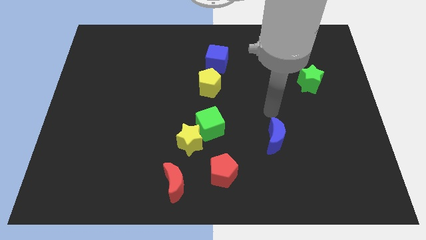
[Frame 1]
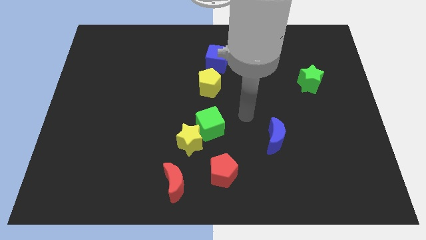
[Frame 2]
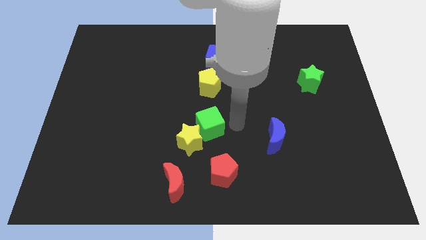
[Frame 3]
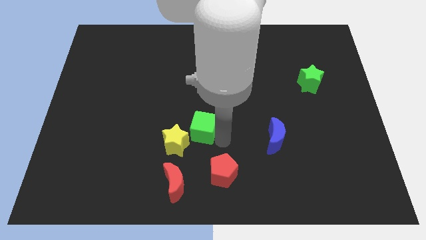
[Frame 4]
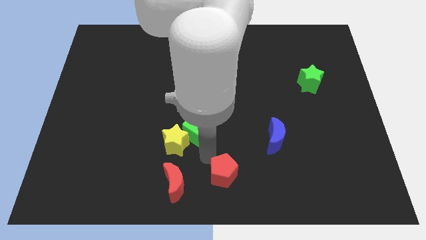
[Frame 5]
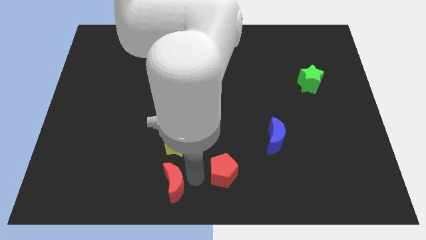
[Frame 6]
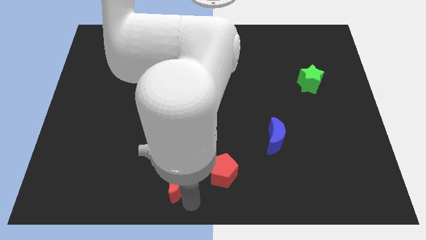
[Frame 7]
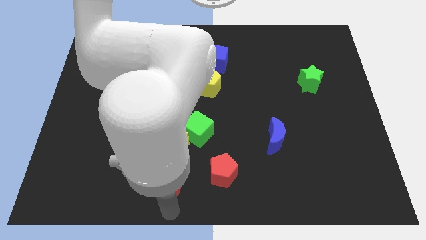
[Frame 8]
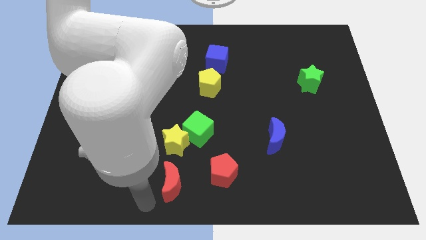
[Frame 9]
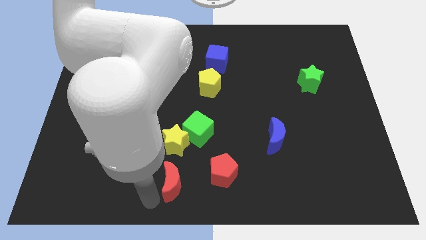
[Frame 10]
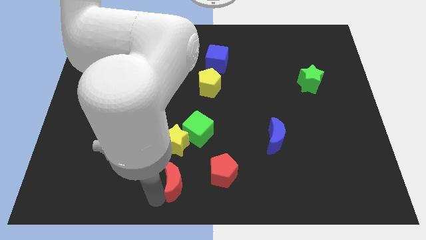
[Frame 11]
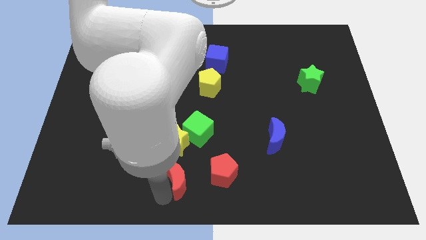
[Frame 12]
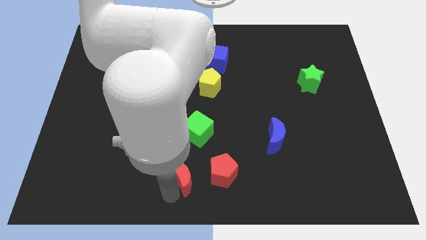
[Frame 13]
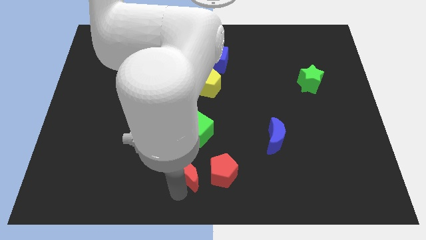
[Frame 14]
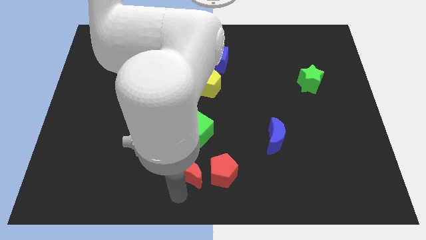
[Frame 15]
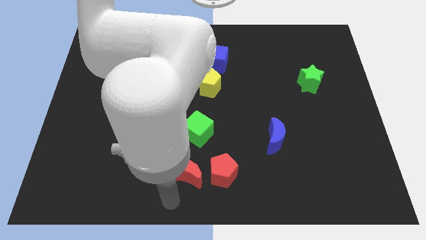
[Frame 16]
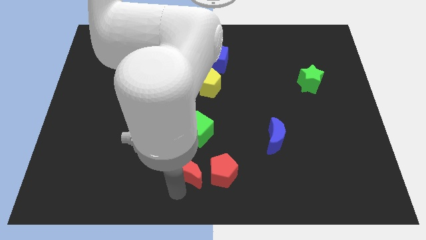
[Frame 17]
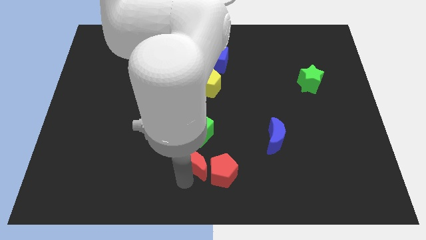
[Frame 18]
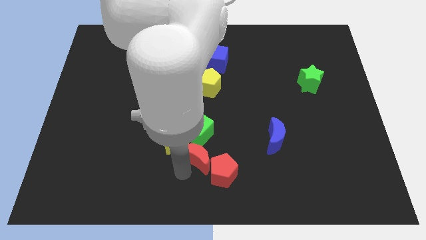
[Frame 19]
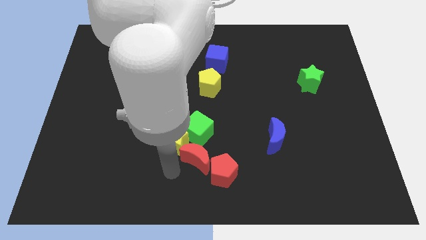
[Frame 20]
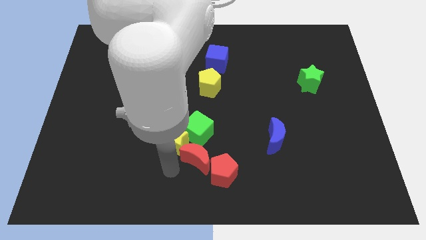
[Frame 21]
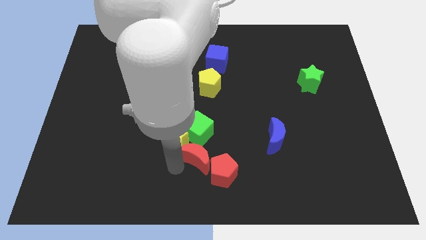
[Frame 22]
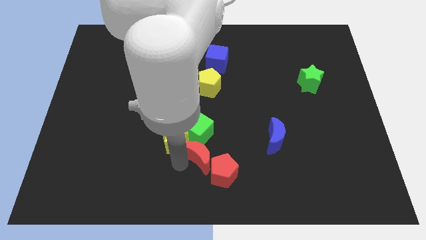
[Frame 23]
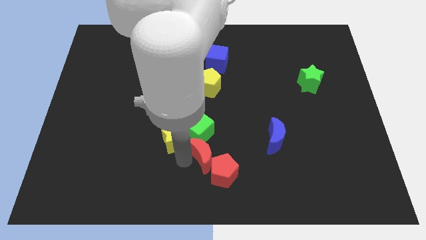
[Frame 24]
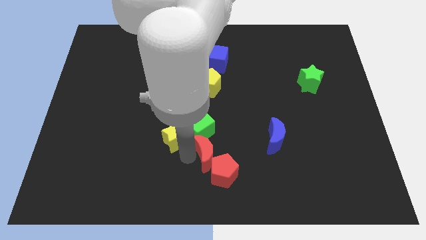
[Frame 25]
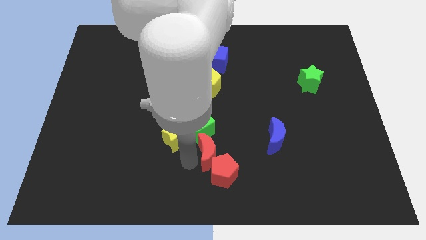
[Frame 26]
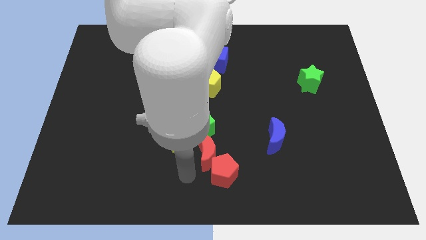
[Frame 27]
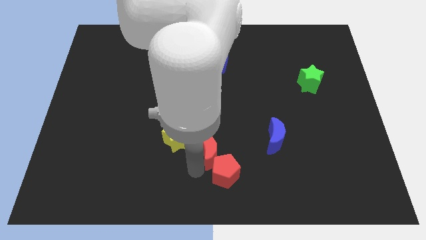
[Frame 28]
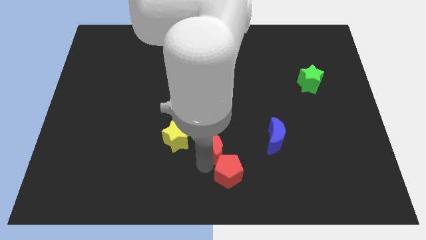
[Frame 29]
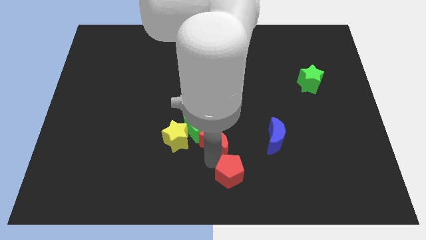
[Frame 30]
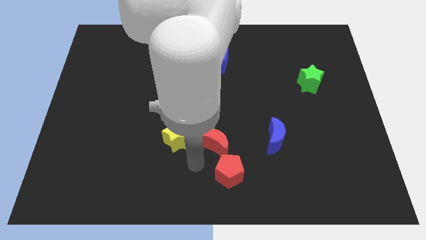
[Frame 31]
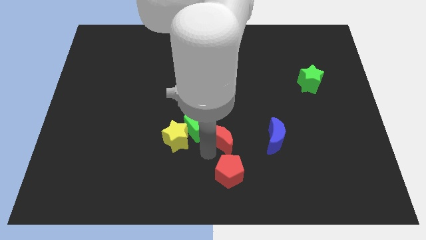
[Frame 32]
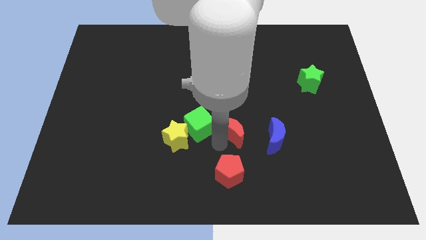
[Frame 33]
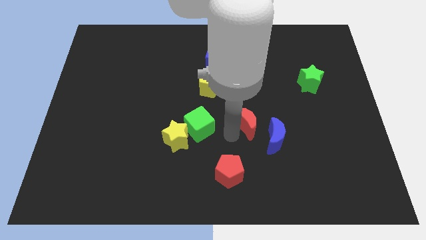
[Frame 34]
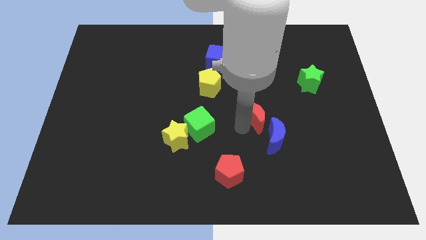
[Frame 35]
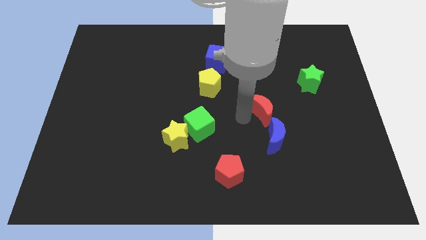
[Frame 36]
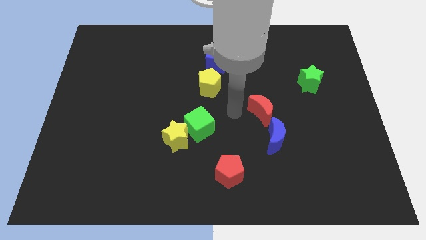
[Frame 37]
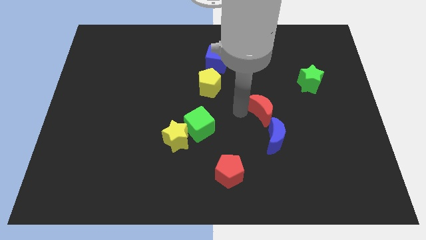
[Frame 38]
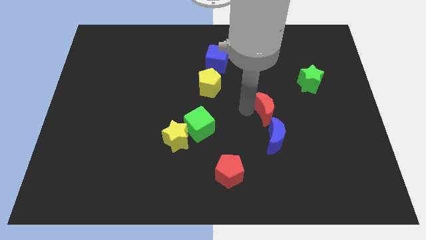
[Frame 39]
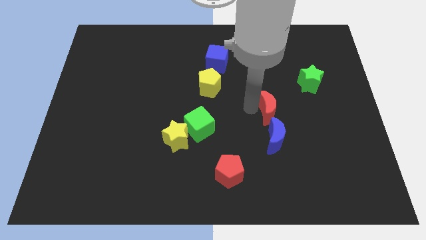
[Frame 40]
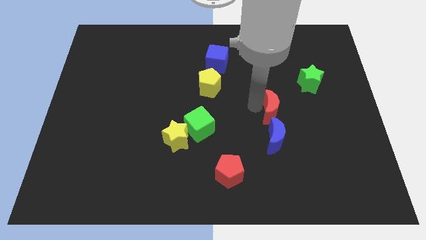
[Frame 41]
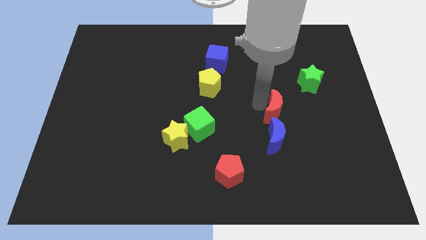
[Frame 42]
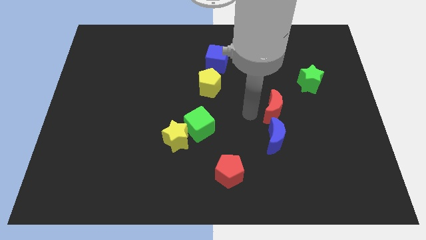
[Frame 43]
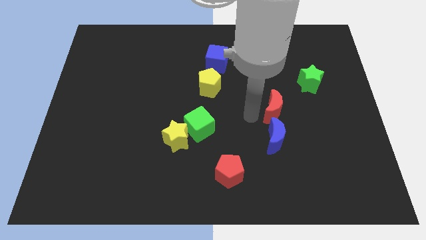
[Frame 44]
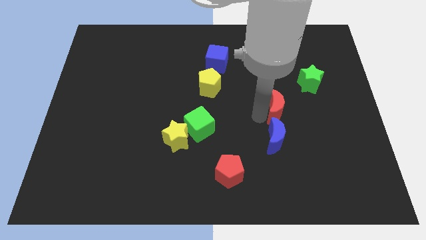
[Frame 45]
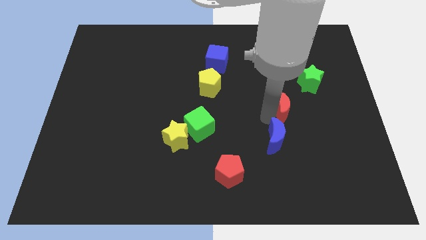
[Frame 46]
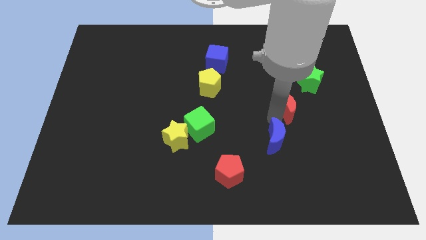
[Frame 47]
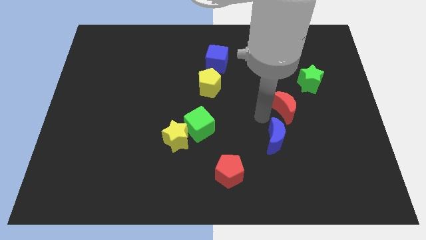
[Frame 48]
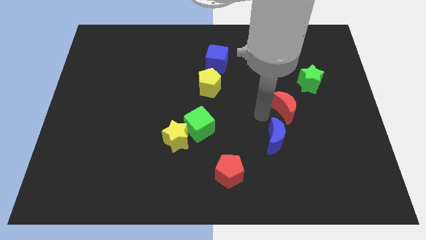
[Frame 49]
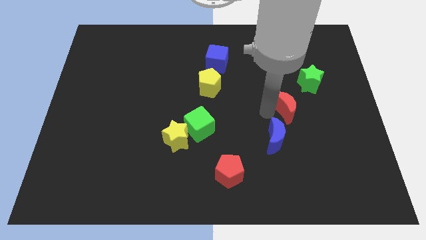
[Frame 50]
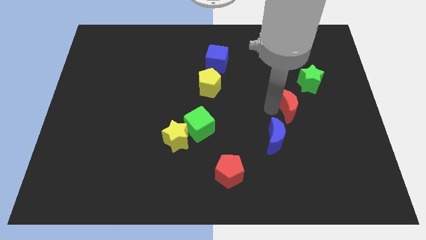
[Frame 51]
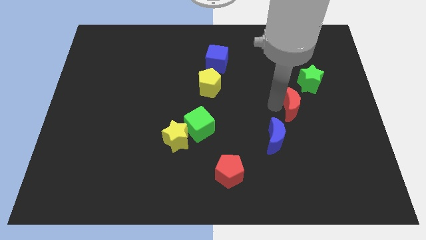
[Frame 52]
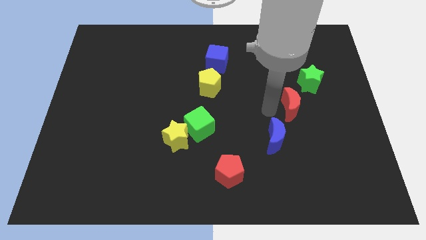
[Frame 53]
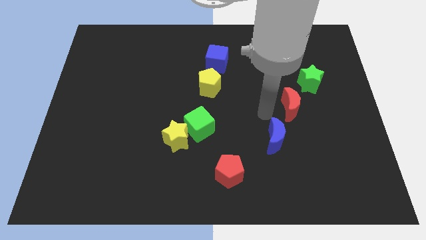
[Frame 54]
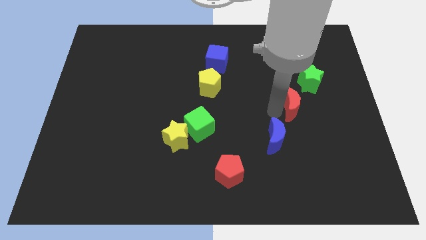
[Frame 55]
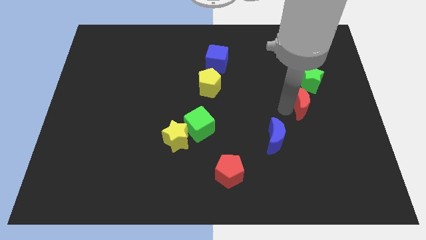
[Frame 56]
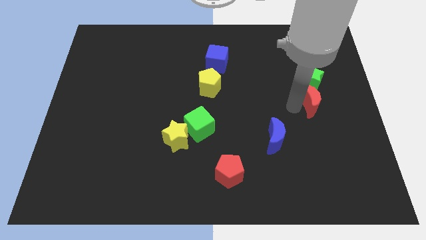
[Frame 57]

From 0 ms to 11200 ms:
move the red moon to the bottom right side of the green star
